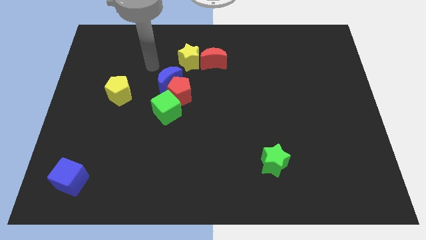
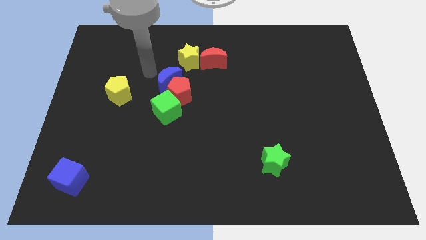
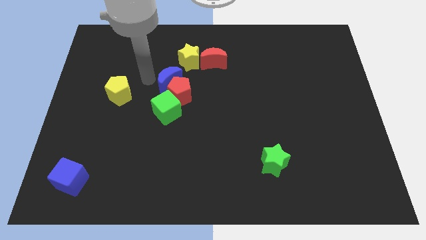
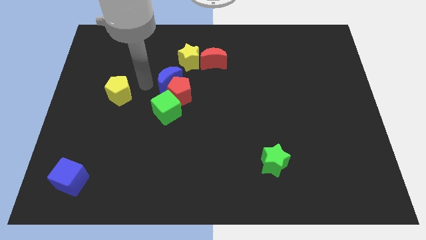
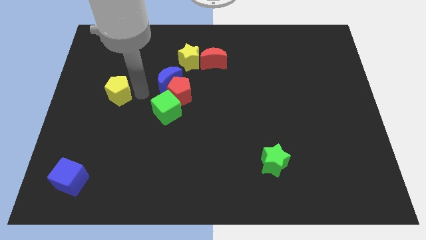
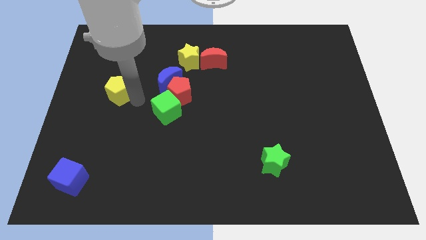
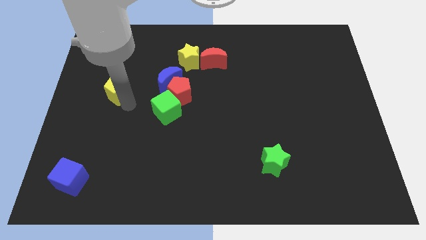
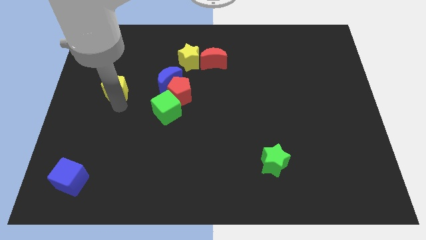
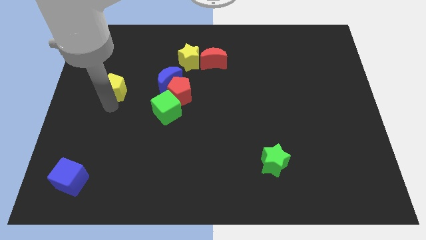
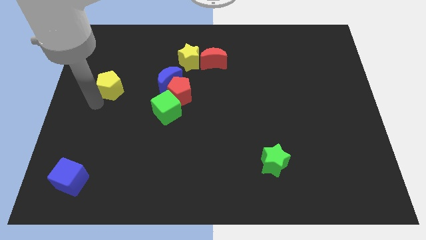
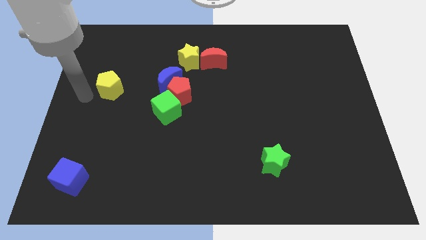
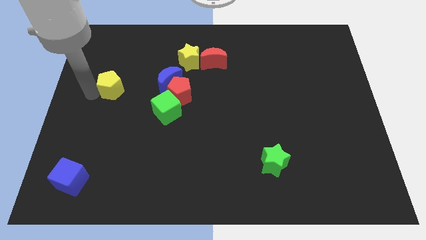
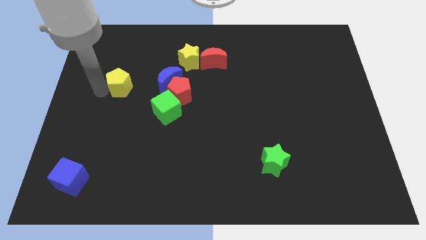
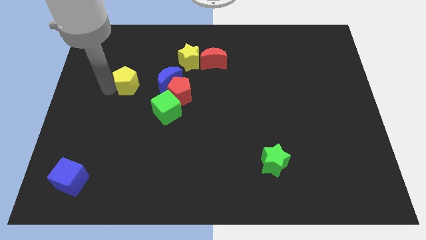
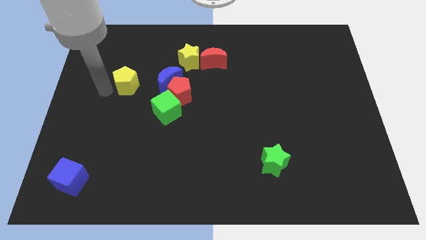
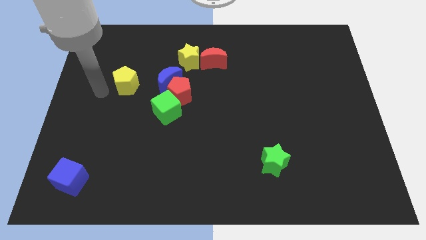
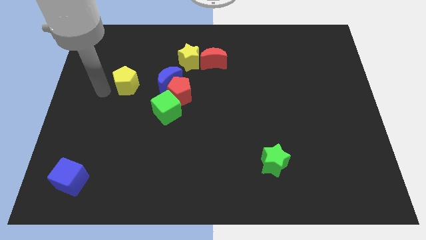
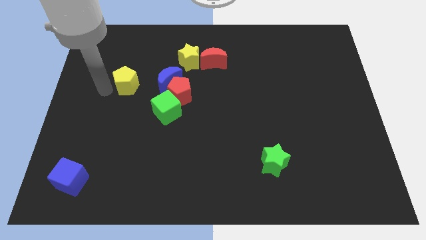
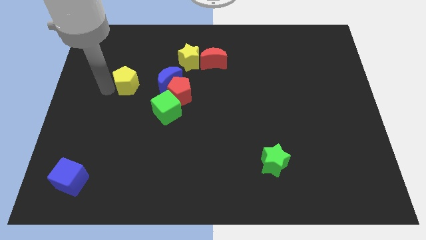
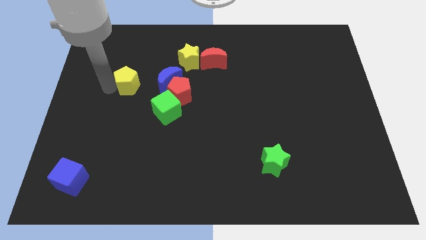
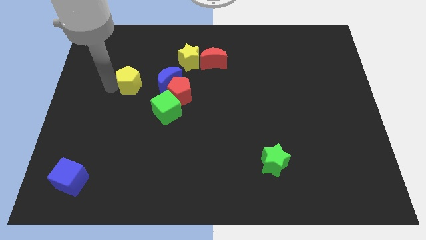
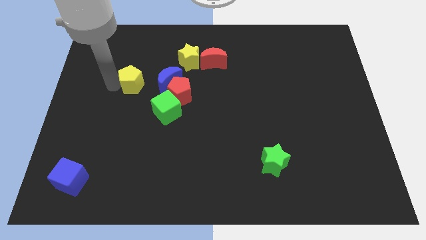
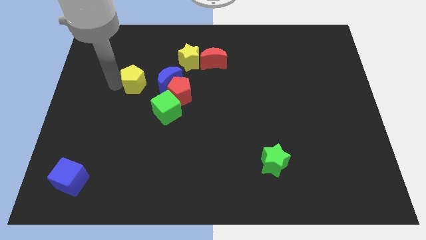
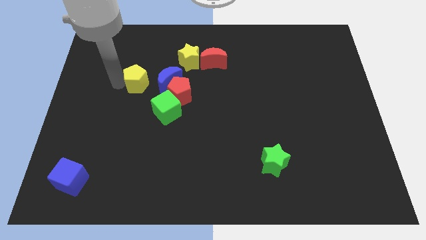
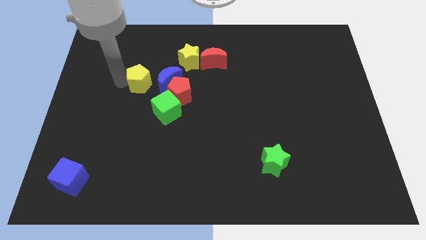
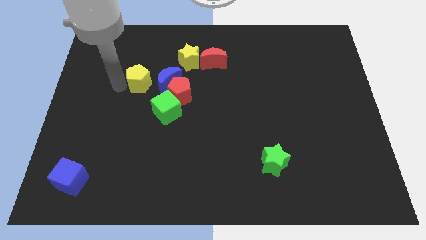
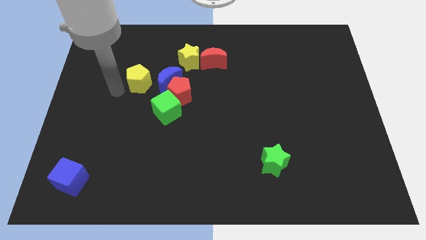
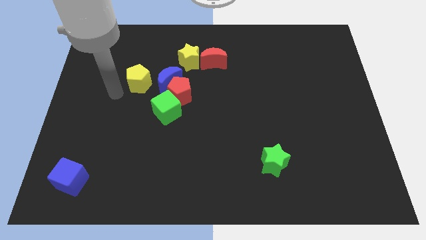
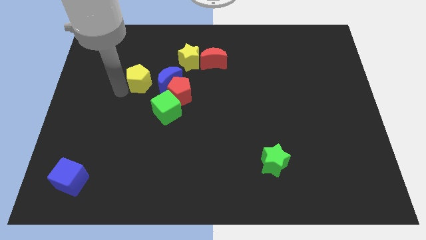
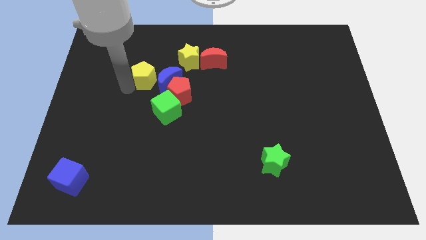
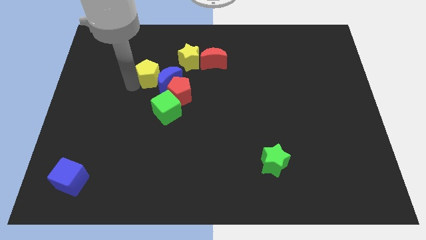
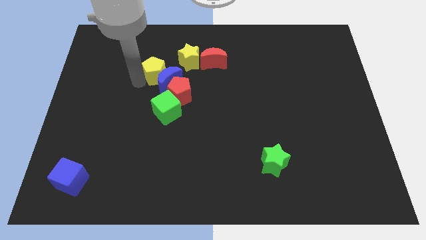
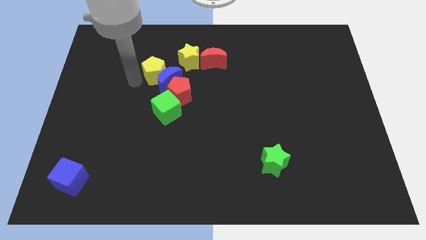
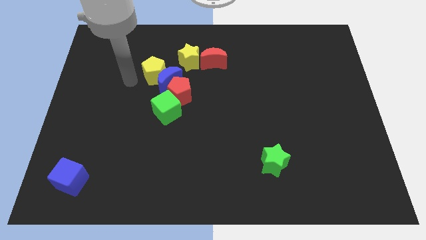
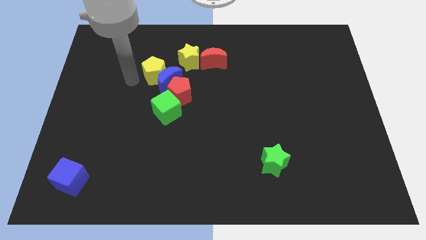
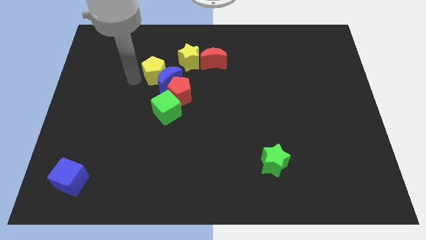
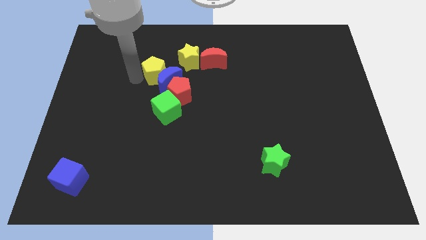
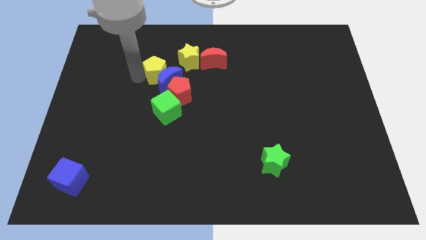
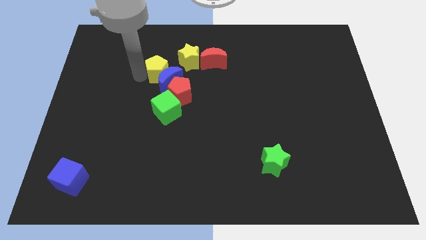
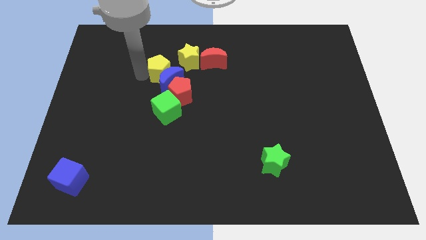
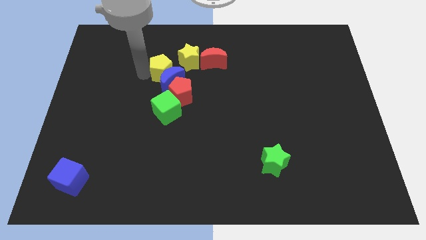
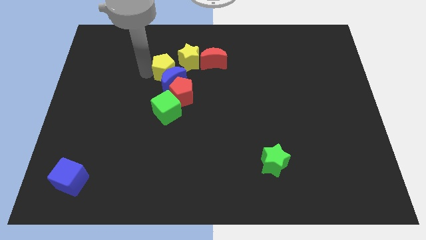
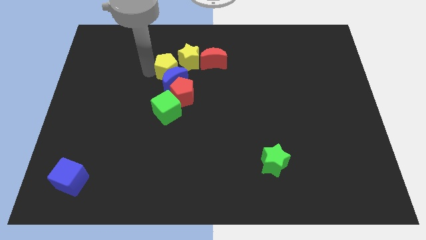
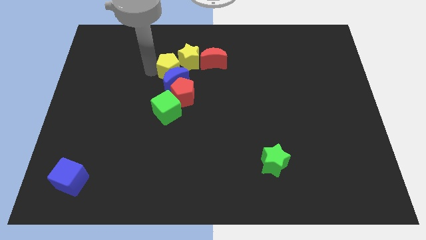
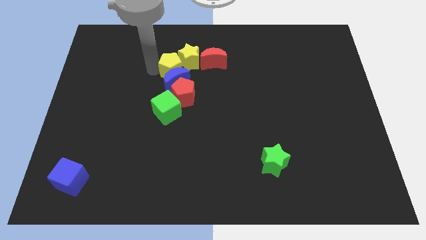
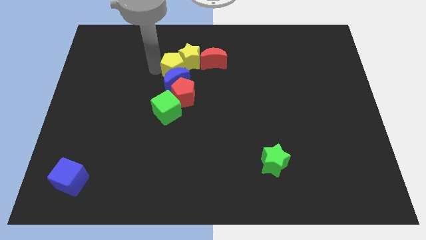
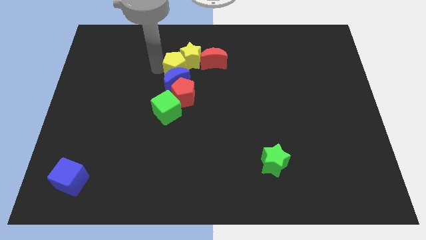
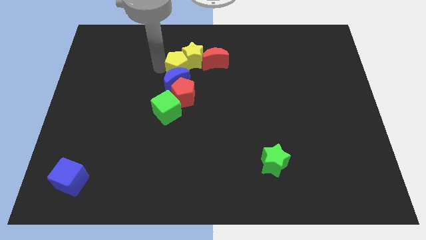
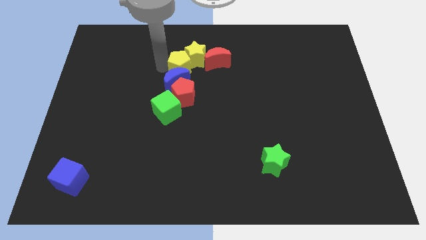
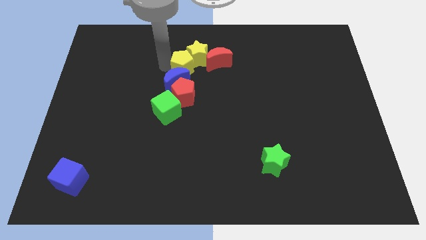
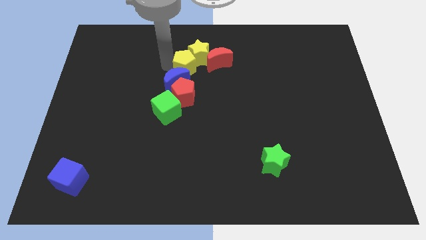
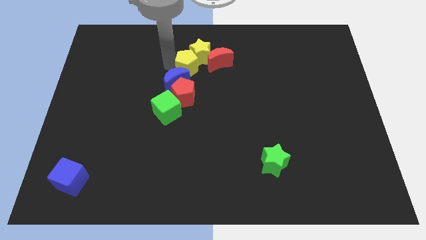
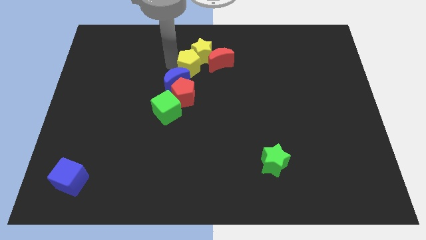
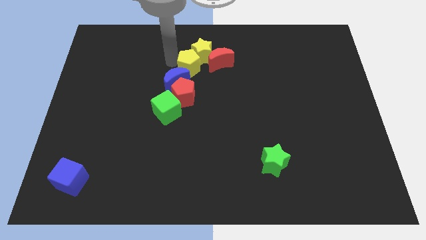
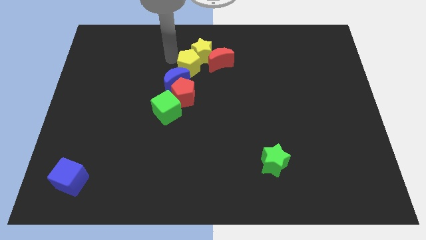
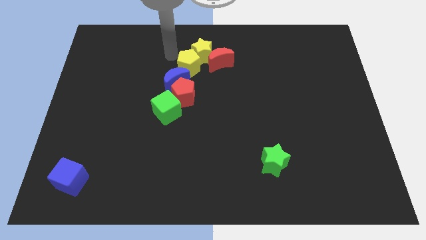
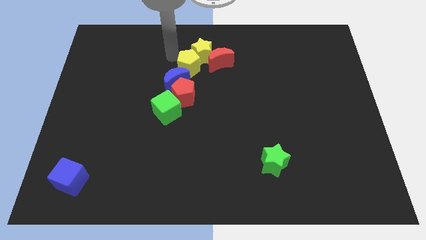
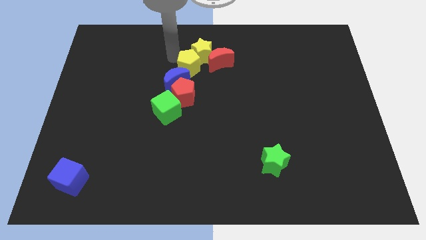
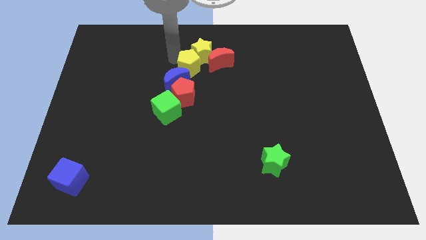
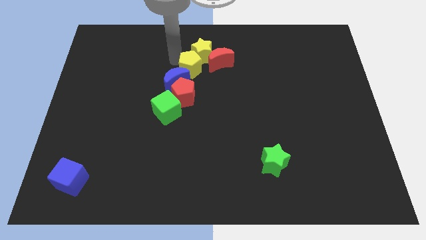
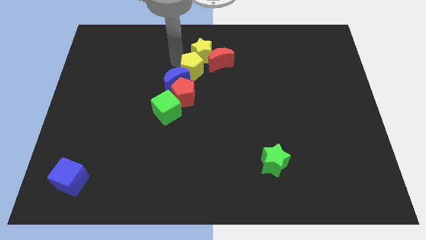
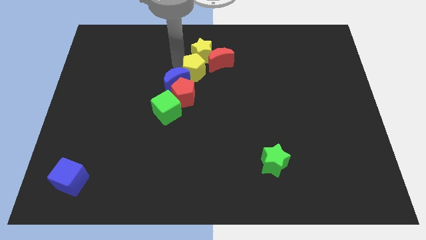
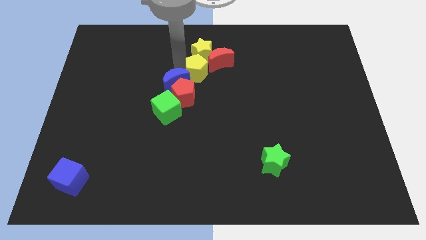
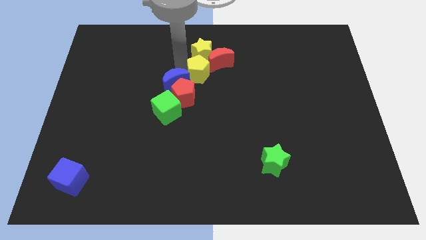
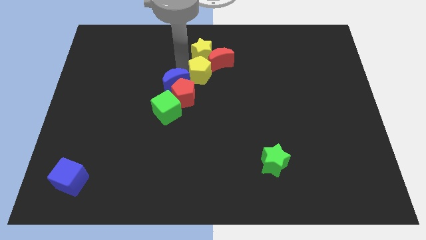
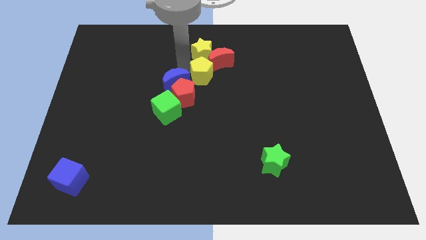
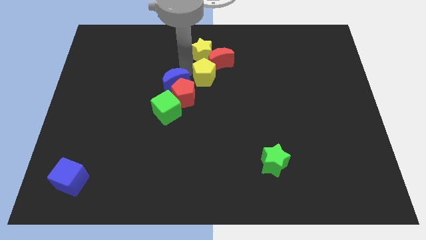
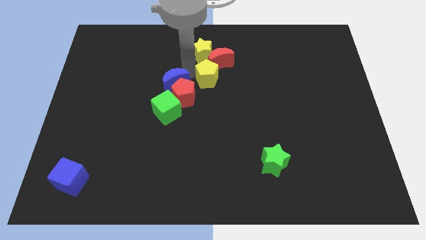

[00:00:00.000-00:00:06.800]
slide the yellow pentagon right

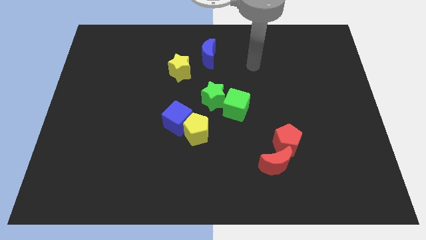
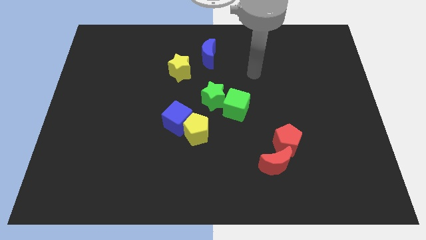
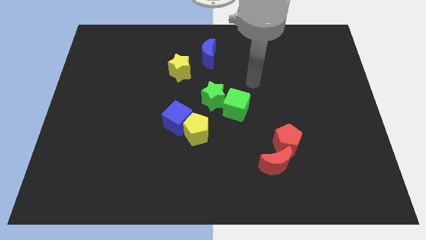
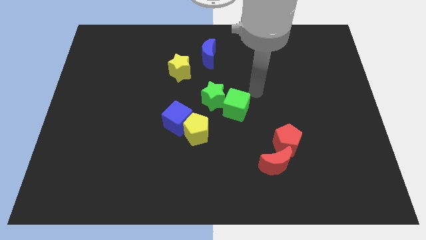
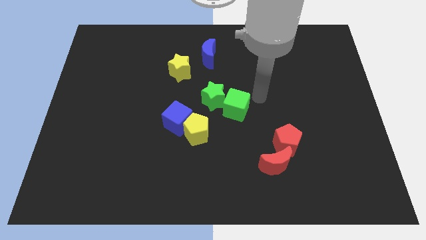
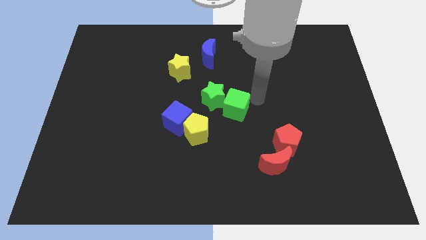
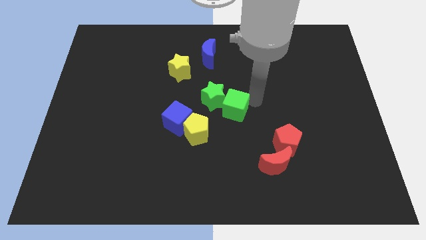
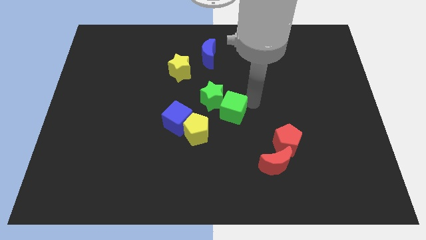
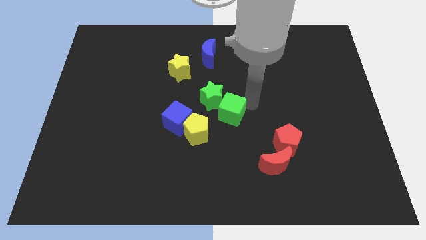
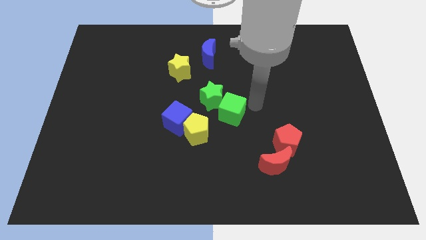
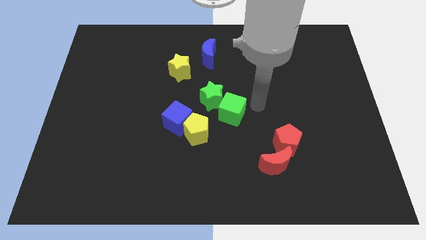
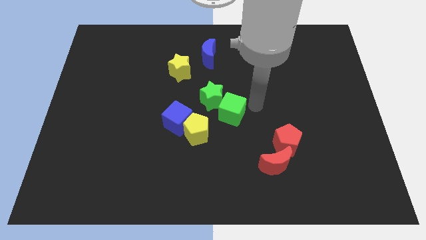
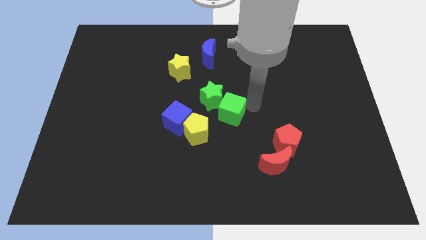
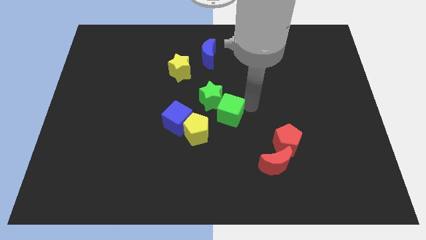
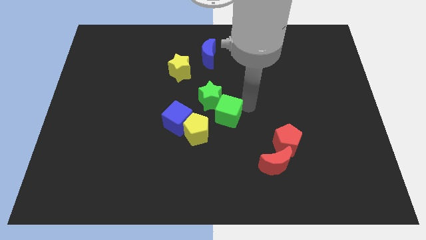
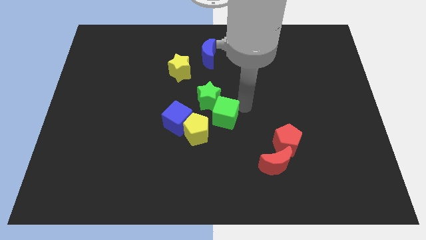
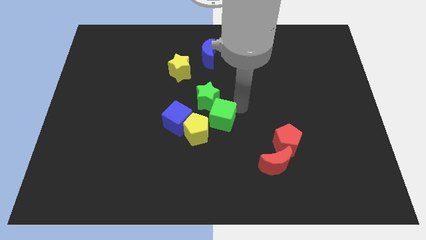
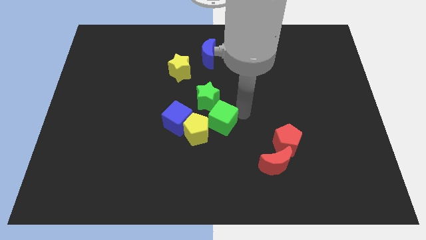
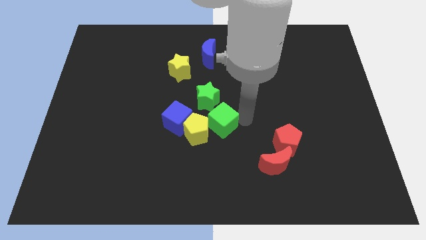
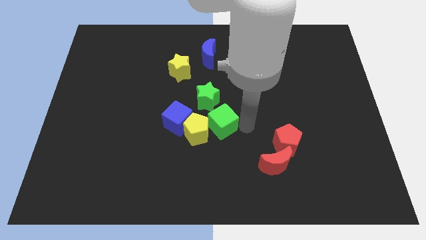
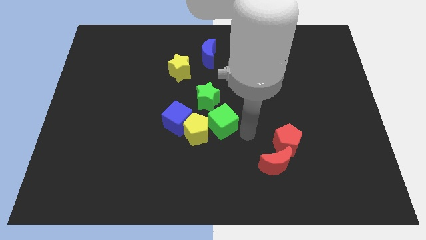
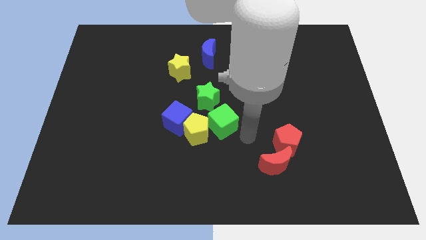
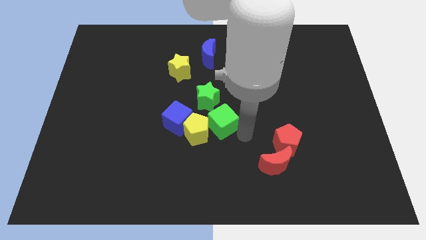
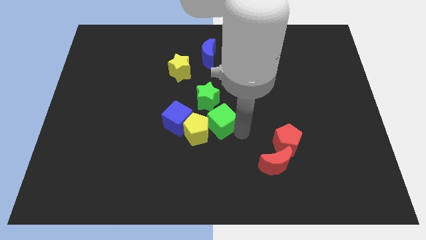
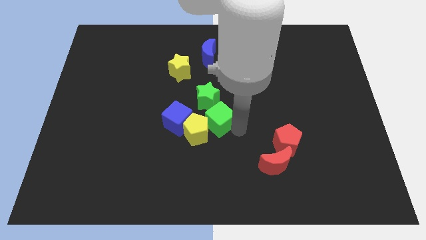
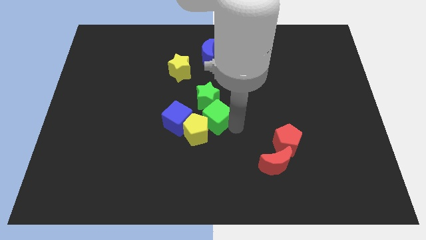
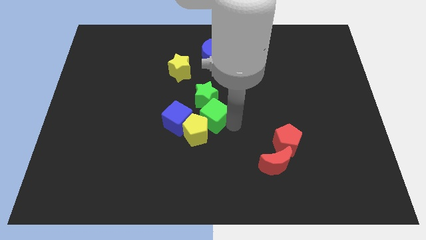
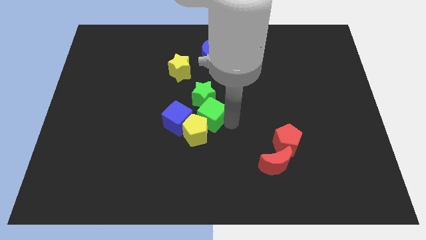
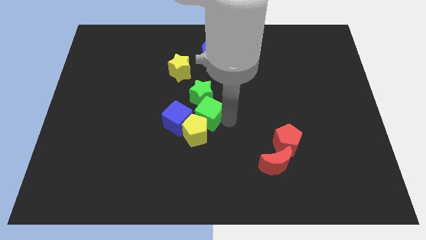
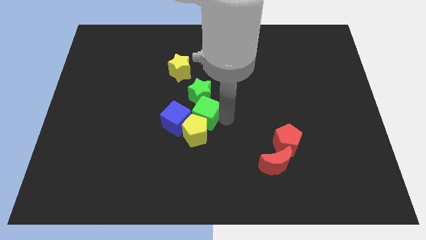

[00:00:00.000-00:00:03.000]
slightly push the green cube to the left
